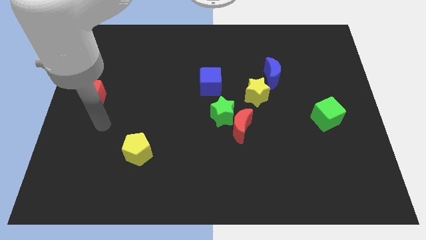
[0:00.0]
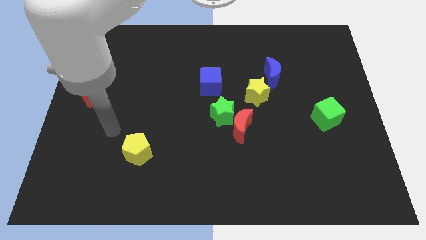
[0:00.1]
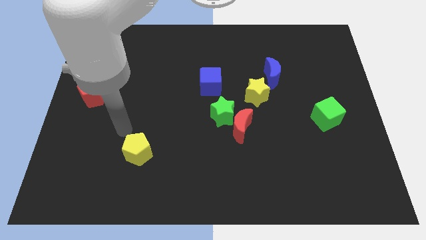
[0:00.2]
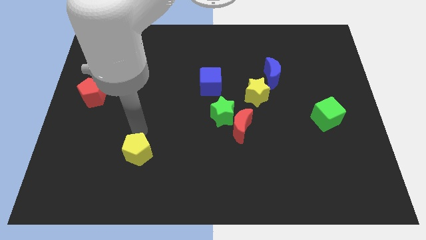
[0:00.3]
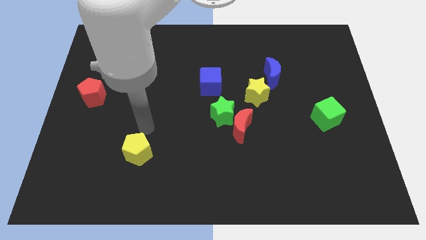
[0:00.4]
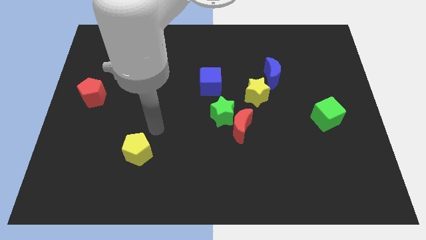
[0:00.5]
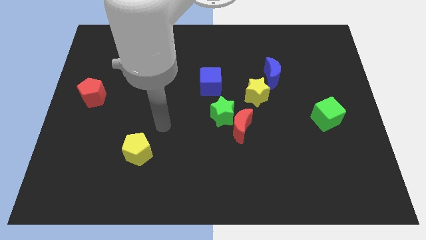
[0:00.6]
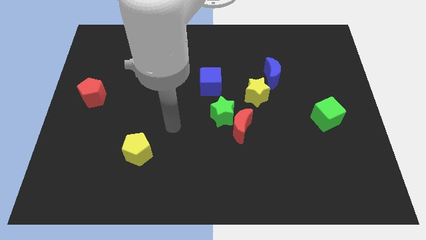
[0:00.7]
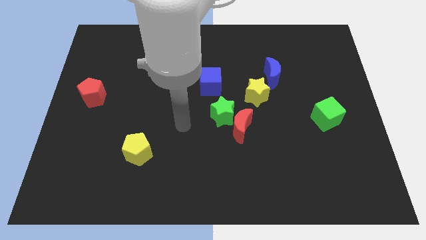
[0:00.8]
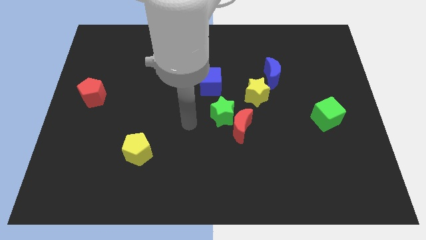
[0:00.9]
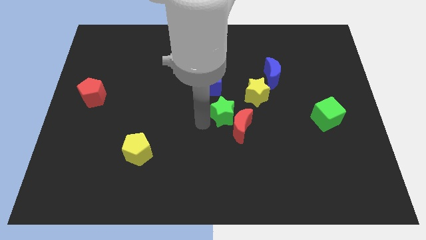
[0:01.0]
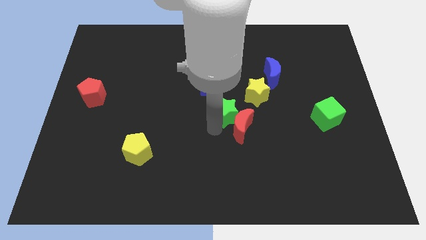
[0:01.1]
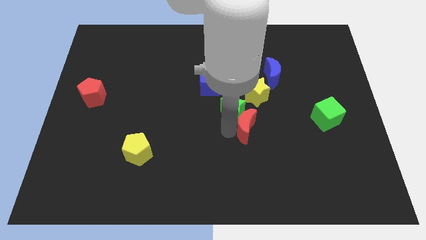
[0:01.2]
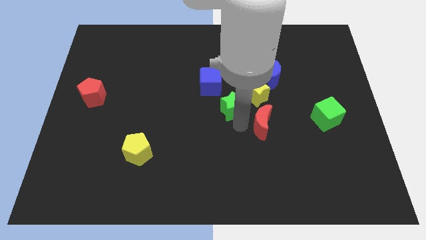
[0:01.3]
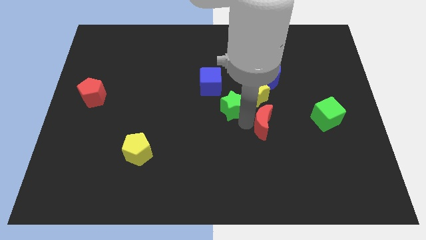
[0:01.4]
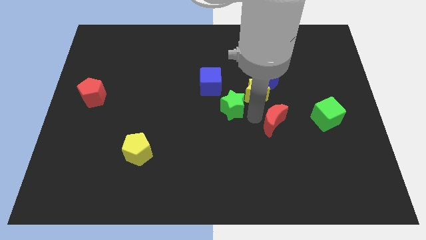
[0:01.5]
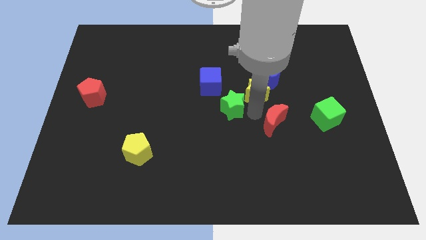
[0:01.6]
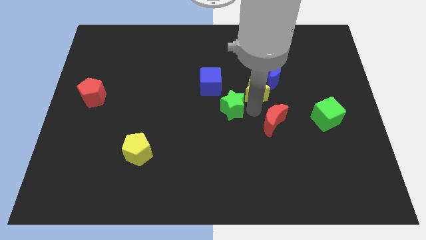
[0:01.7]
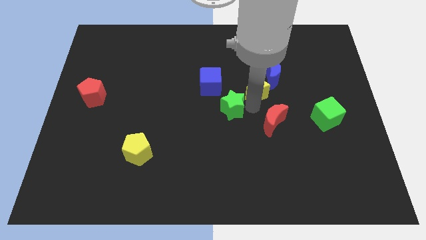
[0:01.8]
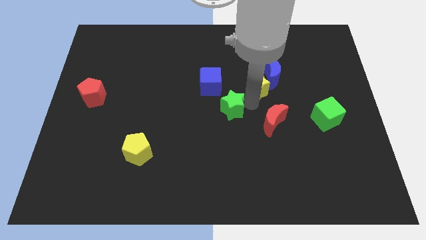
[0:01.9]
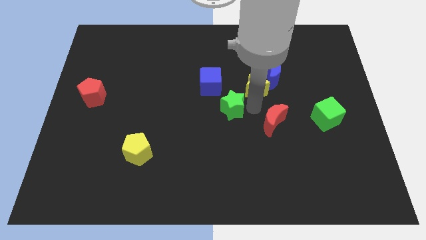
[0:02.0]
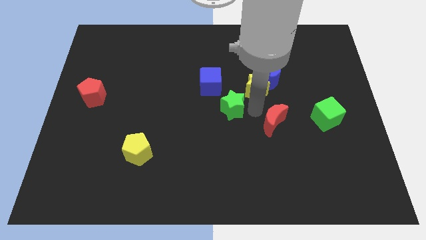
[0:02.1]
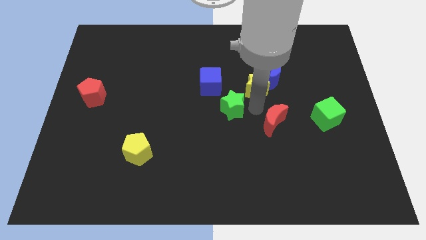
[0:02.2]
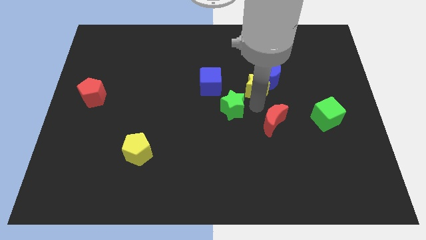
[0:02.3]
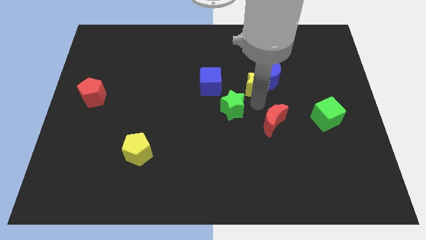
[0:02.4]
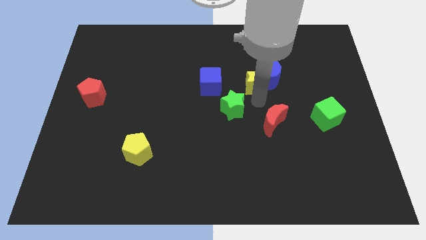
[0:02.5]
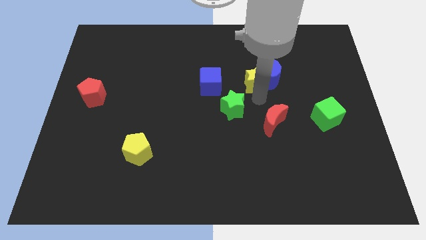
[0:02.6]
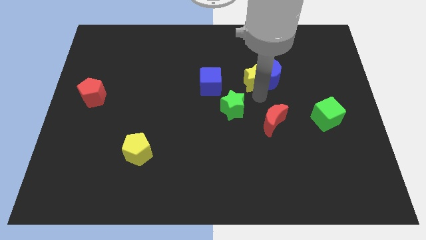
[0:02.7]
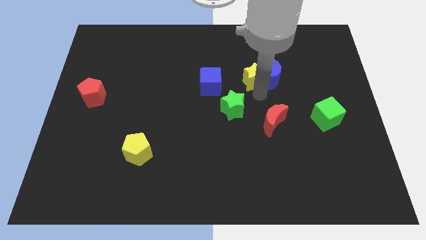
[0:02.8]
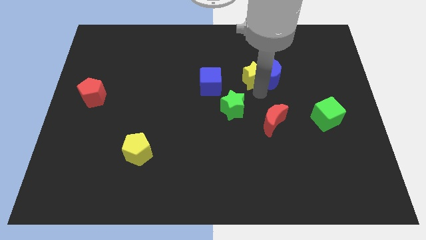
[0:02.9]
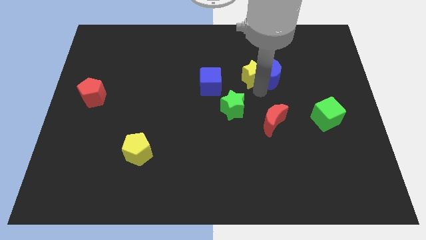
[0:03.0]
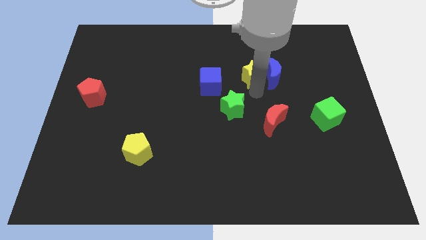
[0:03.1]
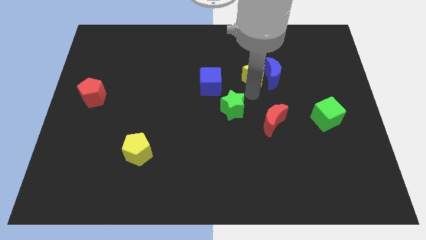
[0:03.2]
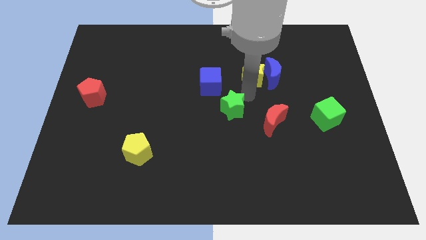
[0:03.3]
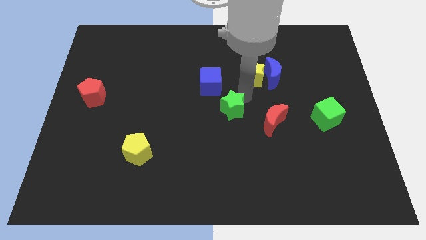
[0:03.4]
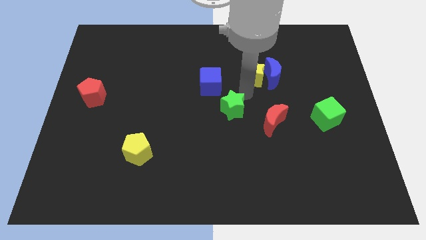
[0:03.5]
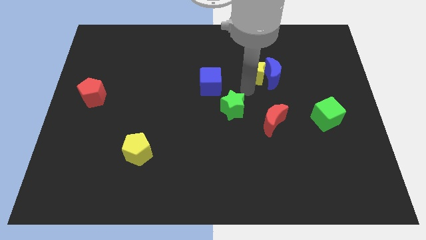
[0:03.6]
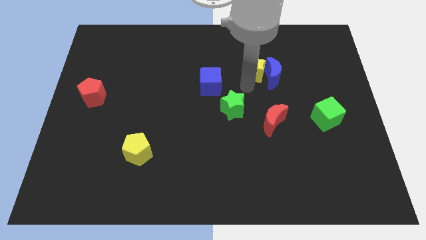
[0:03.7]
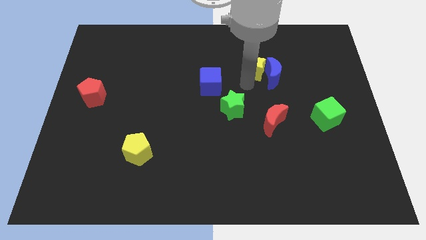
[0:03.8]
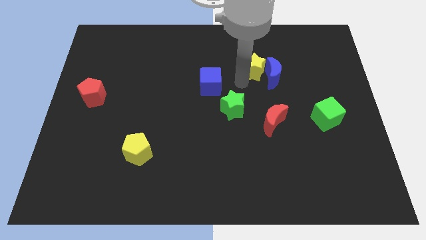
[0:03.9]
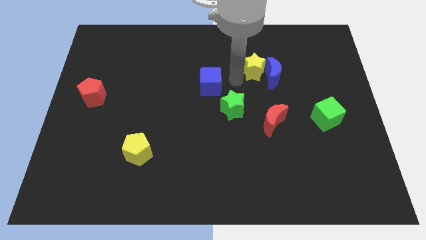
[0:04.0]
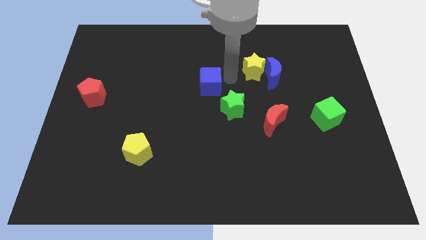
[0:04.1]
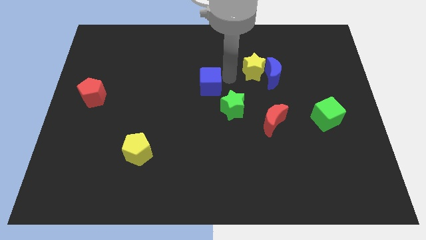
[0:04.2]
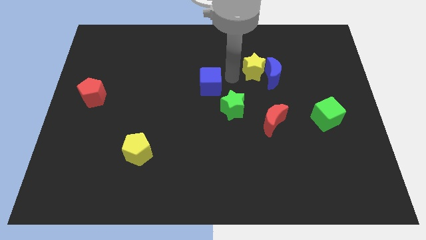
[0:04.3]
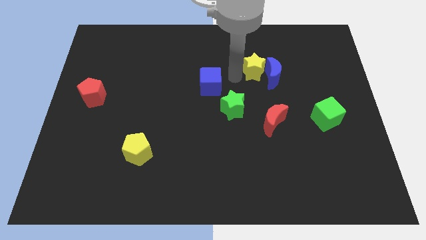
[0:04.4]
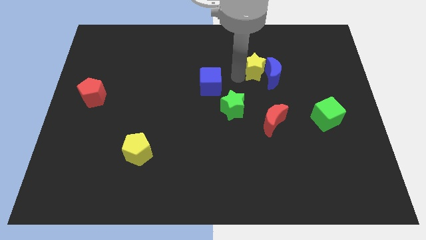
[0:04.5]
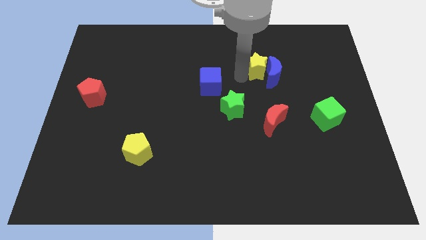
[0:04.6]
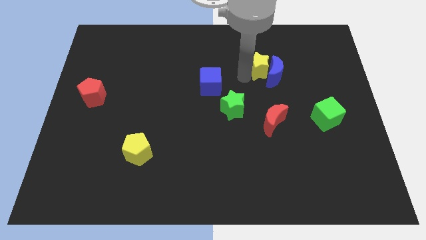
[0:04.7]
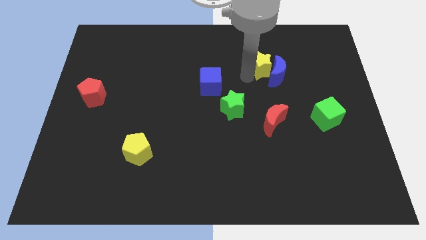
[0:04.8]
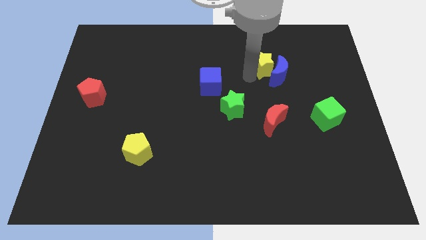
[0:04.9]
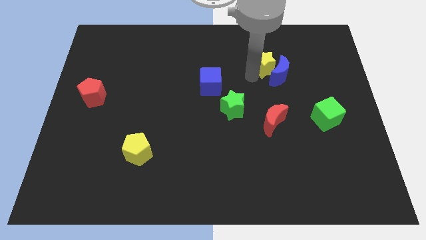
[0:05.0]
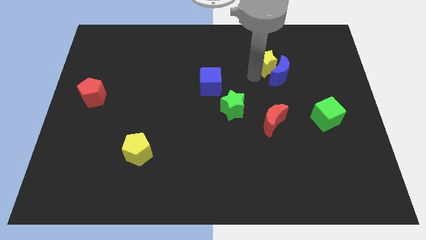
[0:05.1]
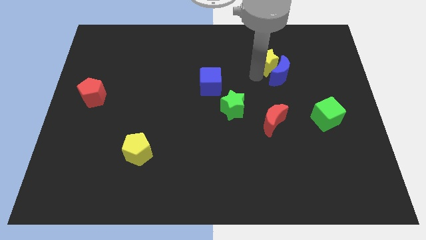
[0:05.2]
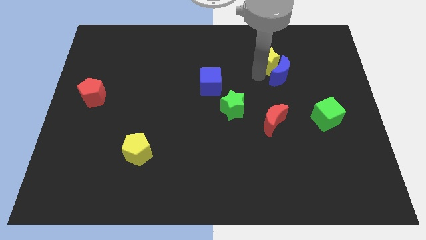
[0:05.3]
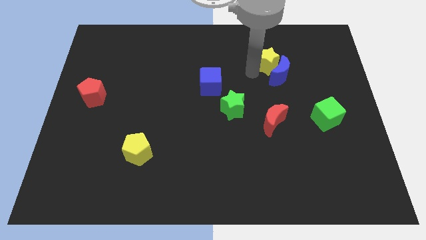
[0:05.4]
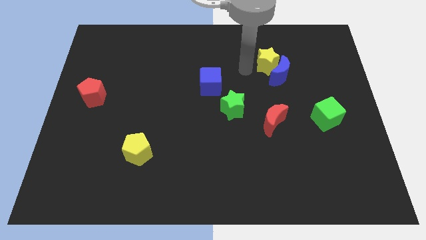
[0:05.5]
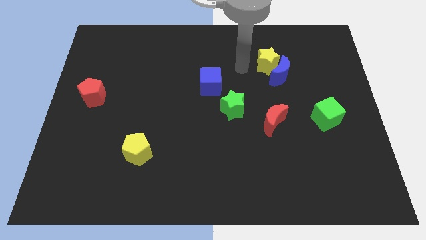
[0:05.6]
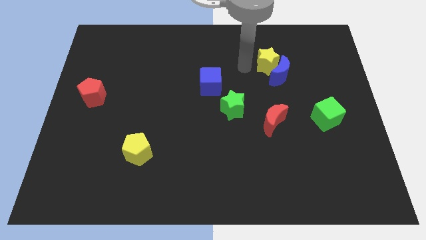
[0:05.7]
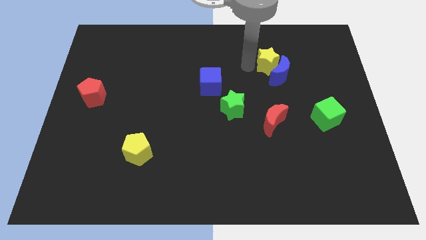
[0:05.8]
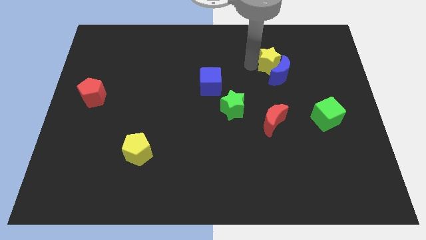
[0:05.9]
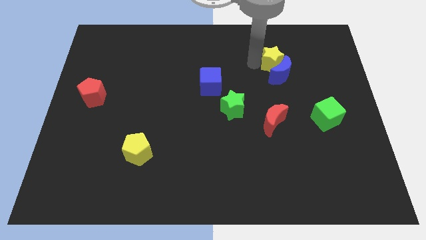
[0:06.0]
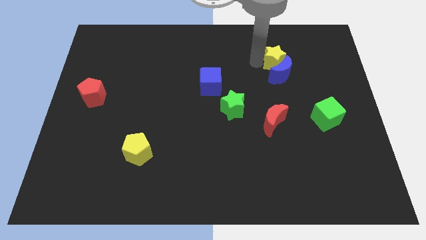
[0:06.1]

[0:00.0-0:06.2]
slide the yellow star diagonally up and to the right of the blue moon

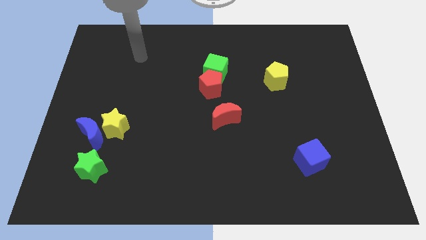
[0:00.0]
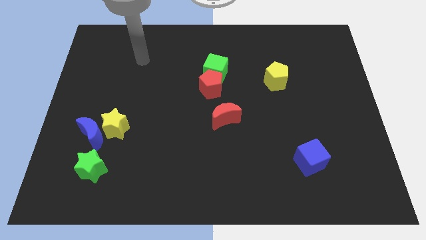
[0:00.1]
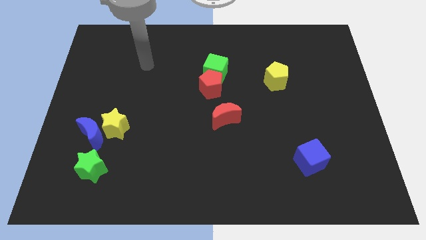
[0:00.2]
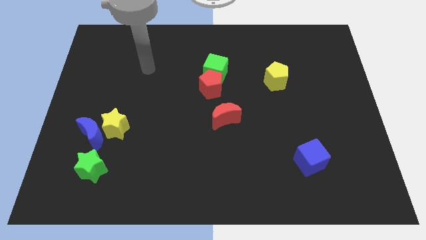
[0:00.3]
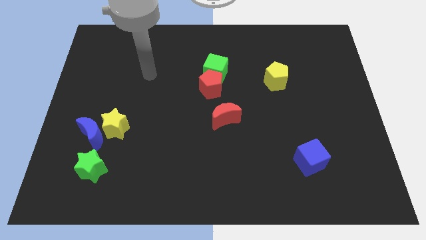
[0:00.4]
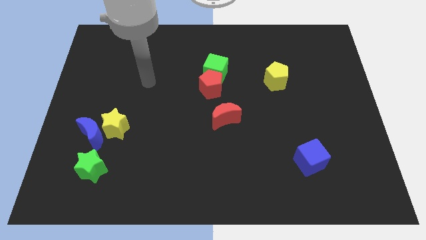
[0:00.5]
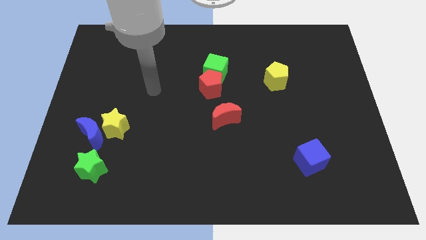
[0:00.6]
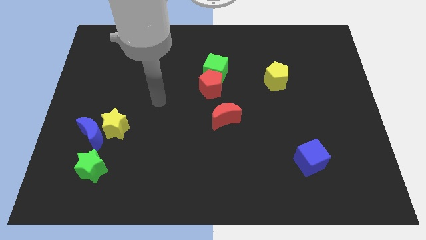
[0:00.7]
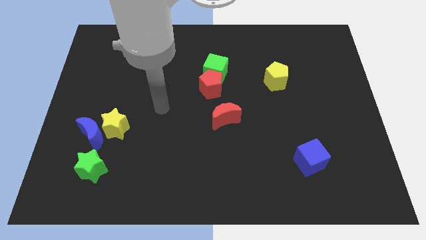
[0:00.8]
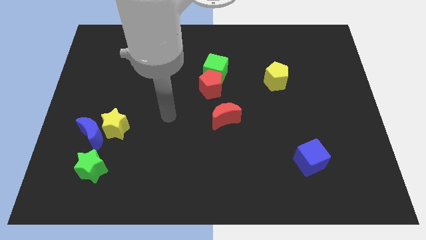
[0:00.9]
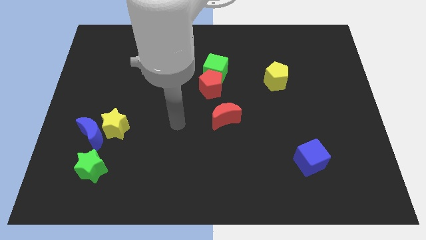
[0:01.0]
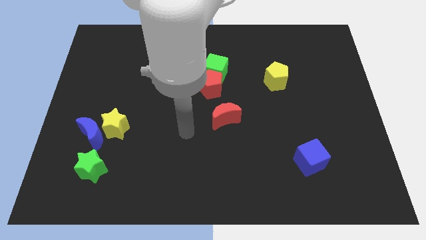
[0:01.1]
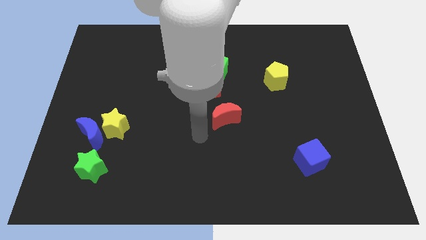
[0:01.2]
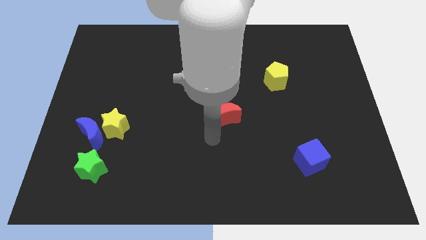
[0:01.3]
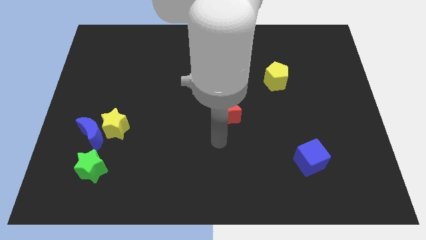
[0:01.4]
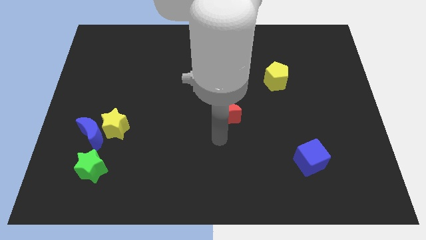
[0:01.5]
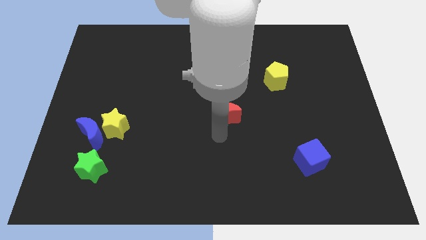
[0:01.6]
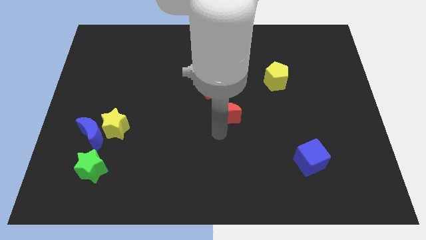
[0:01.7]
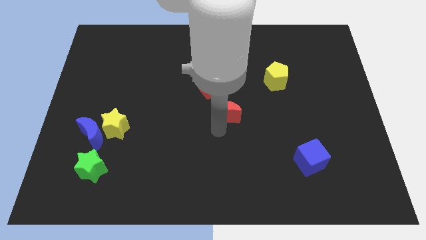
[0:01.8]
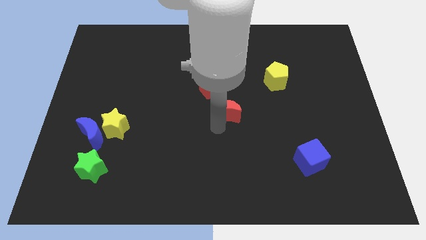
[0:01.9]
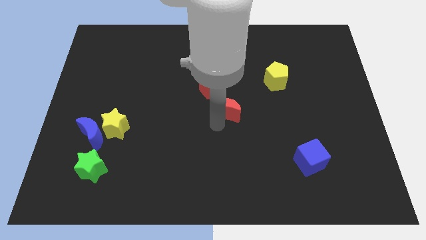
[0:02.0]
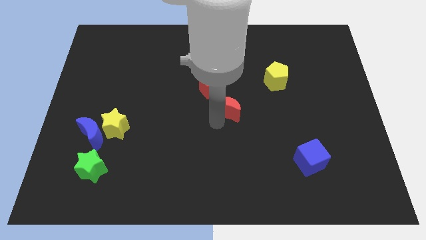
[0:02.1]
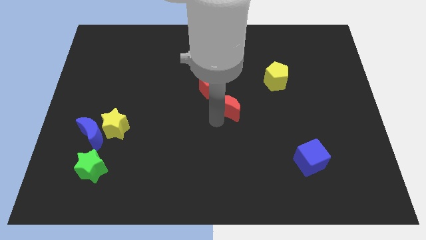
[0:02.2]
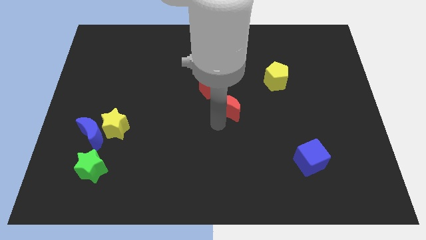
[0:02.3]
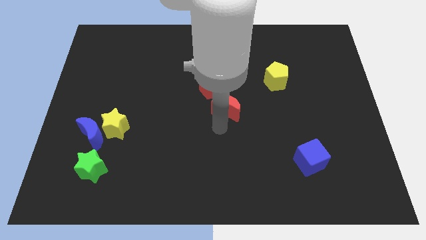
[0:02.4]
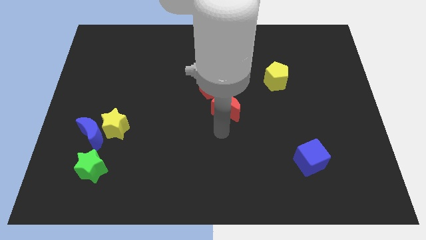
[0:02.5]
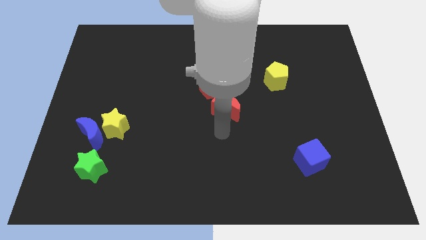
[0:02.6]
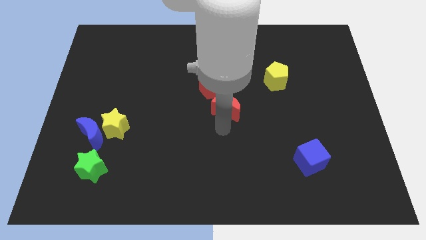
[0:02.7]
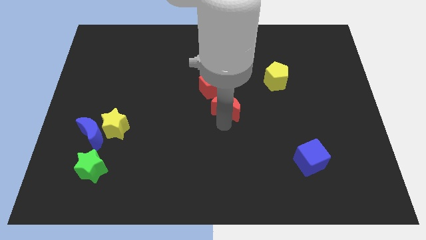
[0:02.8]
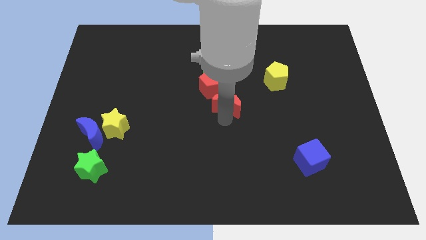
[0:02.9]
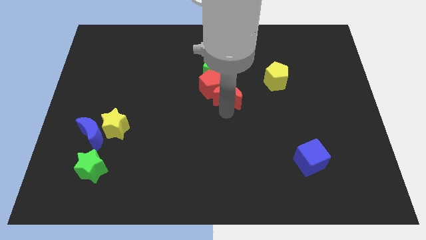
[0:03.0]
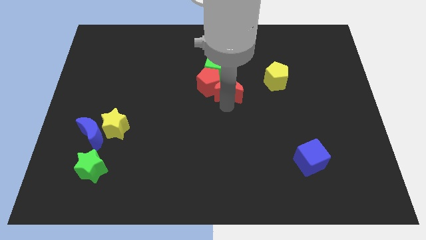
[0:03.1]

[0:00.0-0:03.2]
move the red moon to the left of the yellow pentagon
